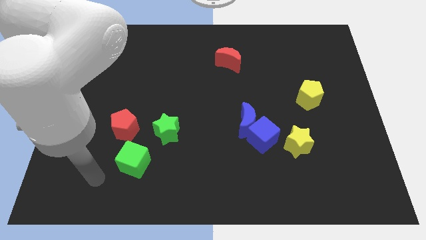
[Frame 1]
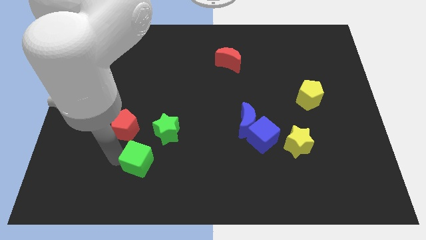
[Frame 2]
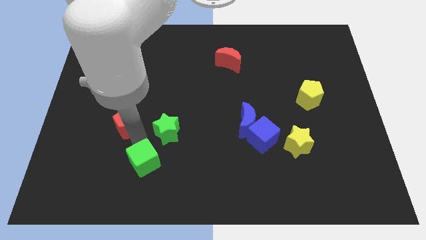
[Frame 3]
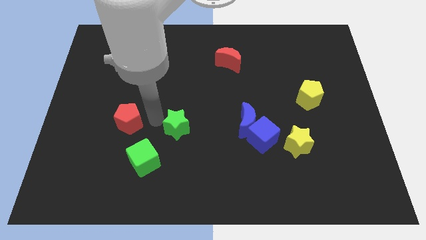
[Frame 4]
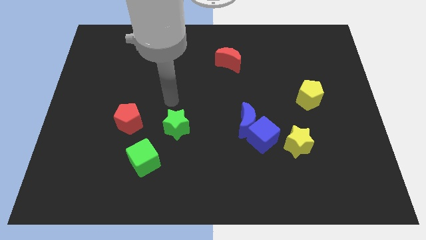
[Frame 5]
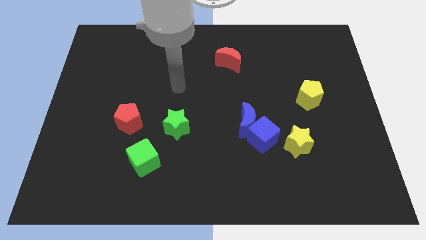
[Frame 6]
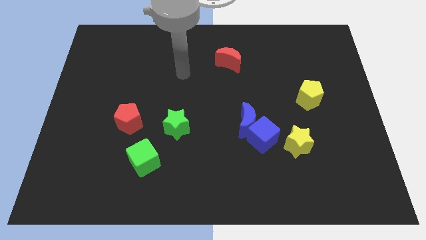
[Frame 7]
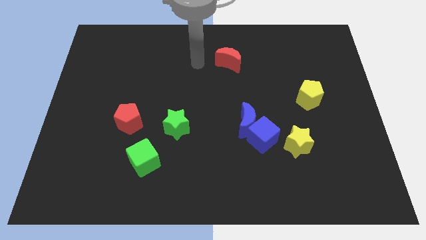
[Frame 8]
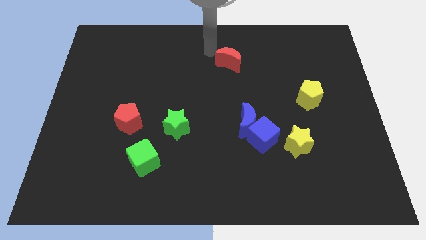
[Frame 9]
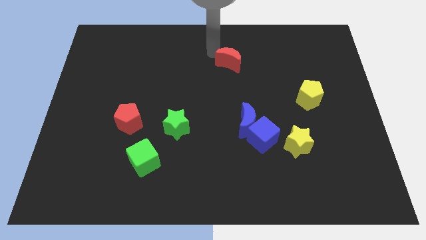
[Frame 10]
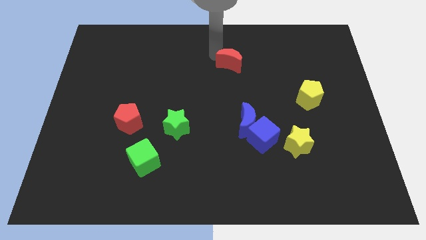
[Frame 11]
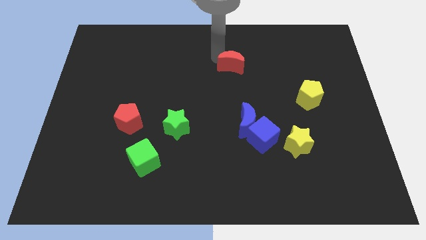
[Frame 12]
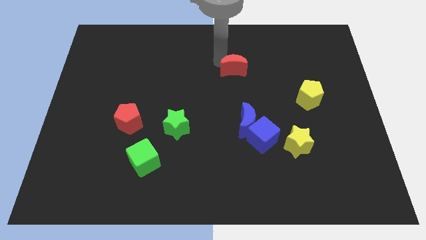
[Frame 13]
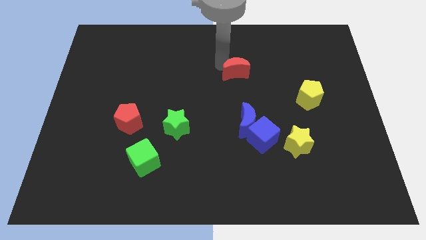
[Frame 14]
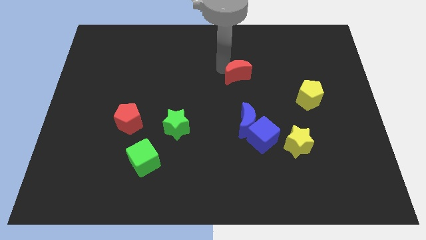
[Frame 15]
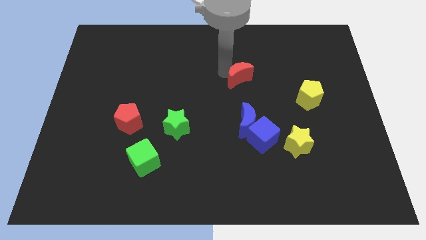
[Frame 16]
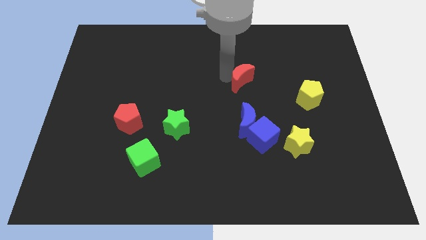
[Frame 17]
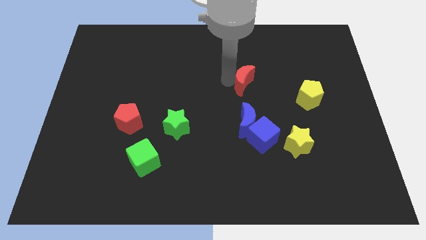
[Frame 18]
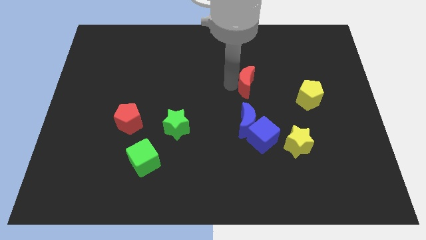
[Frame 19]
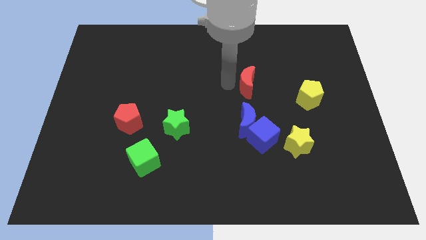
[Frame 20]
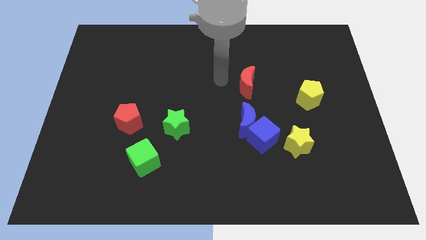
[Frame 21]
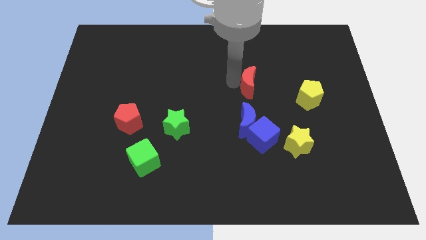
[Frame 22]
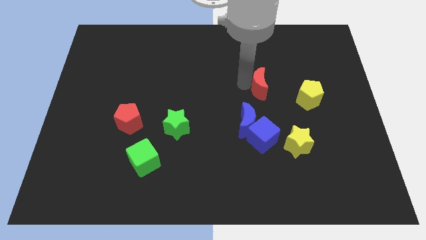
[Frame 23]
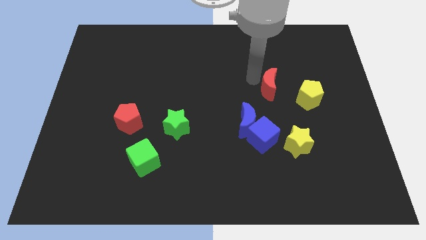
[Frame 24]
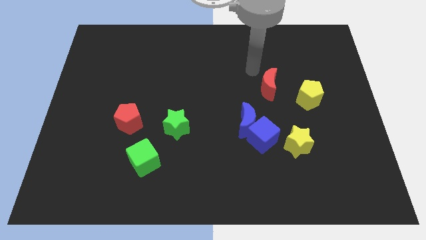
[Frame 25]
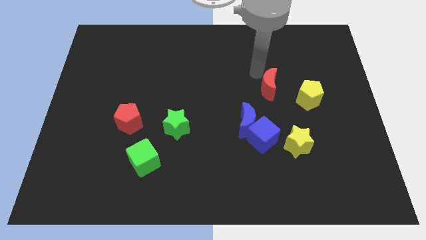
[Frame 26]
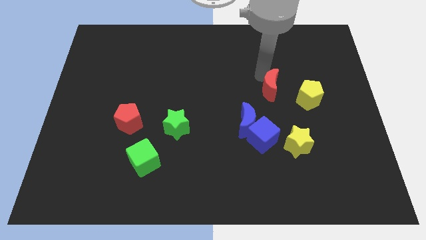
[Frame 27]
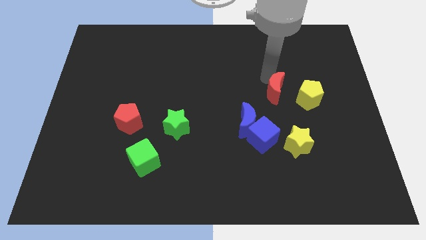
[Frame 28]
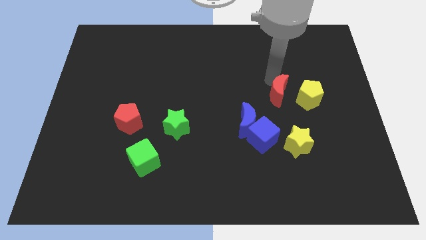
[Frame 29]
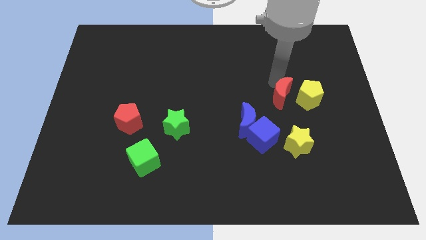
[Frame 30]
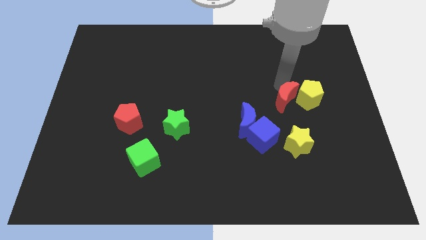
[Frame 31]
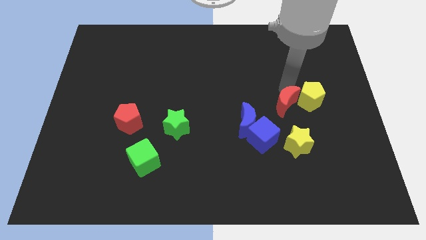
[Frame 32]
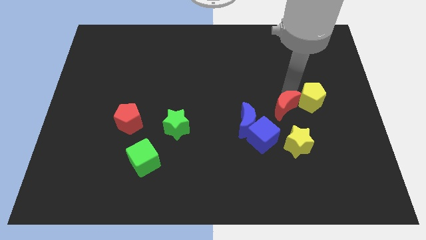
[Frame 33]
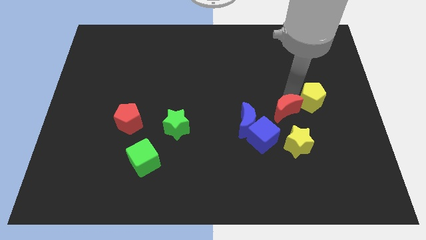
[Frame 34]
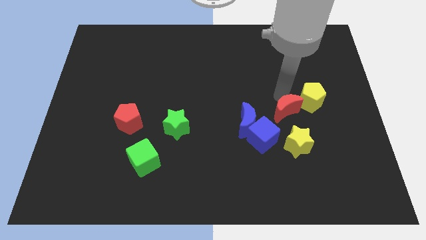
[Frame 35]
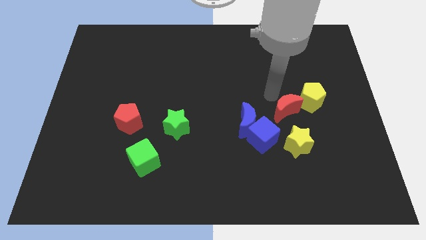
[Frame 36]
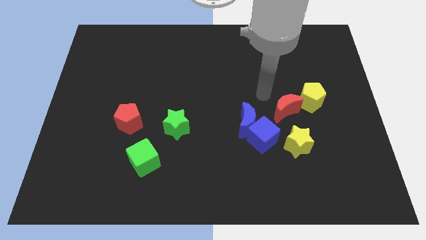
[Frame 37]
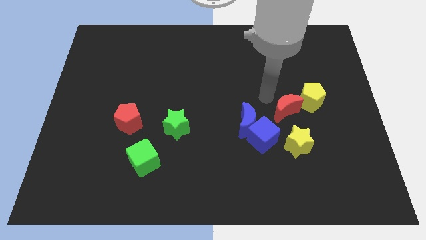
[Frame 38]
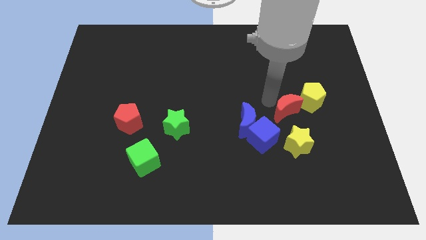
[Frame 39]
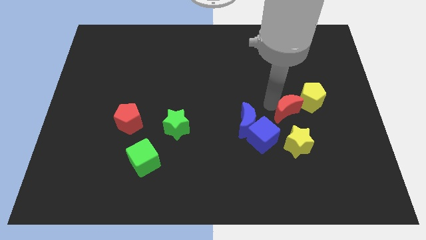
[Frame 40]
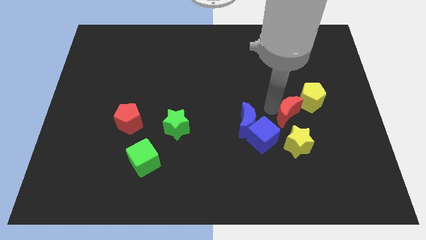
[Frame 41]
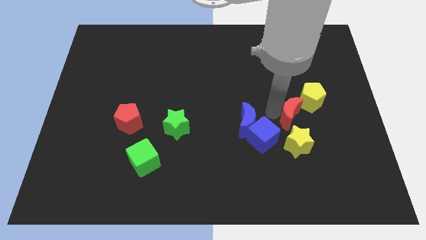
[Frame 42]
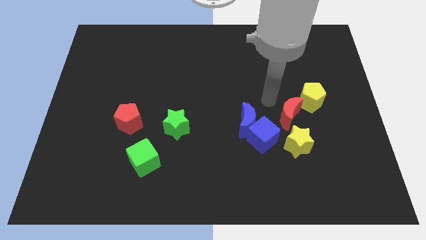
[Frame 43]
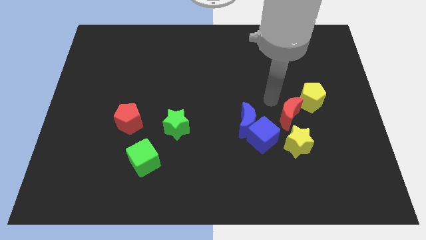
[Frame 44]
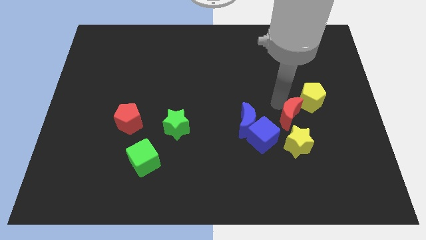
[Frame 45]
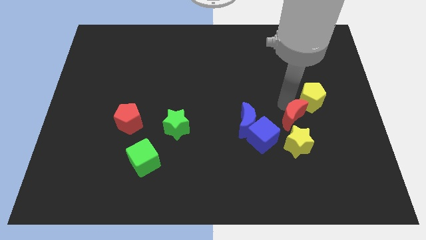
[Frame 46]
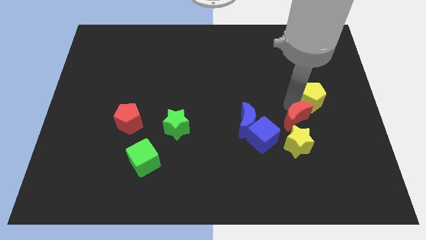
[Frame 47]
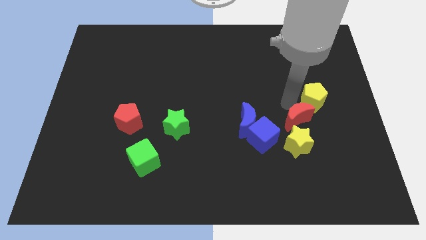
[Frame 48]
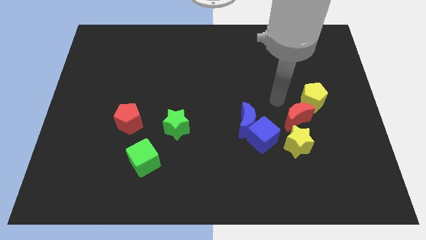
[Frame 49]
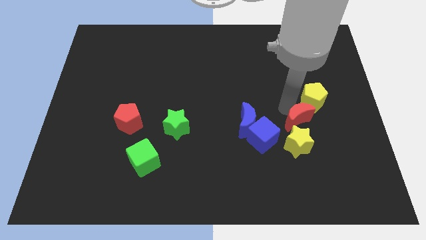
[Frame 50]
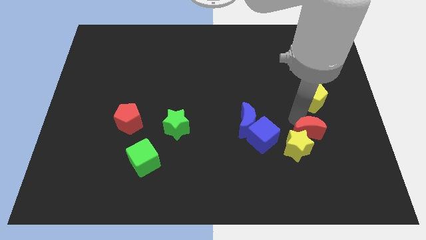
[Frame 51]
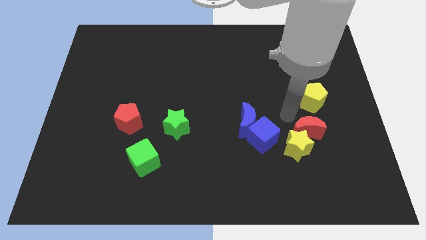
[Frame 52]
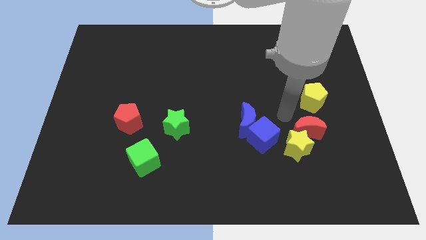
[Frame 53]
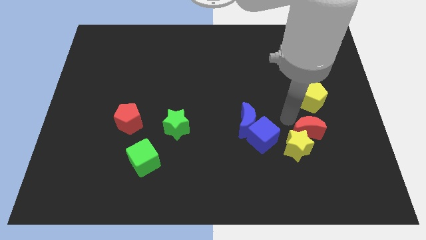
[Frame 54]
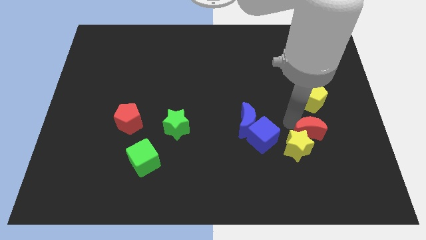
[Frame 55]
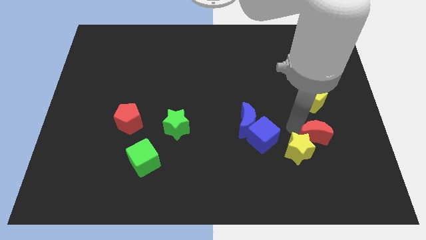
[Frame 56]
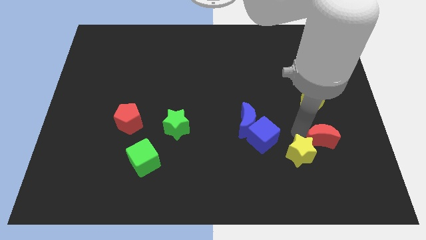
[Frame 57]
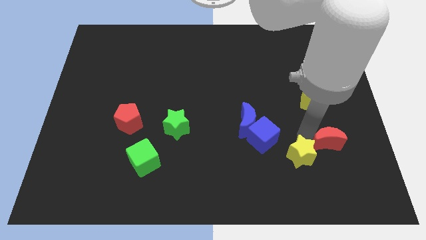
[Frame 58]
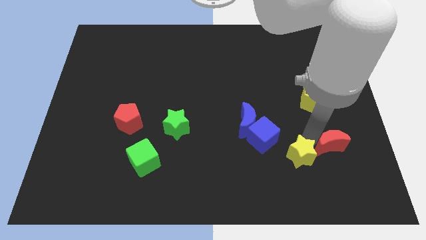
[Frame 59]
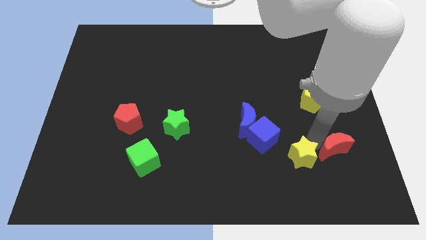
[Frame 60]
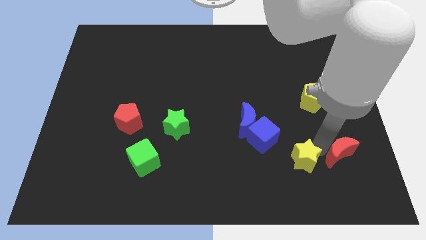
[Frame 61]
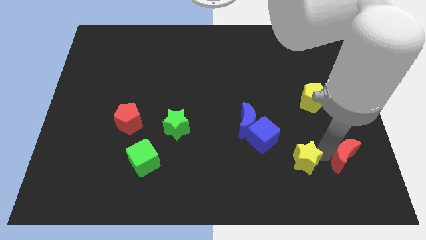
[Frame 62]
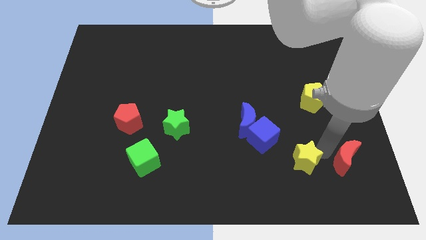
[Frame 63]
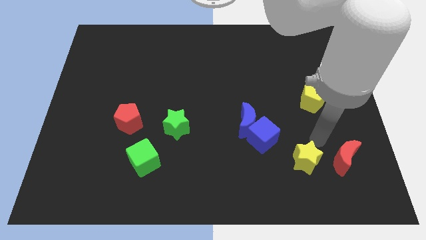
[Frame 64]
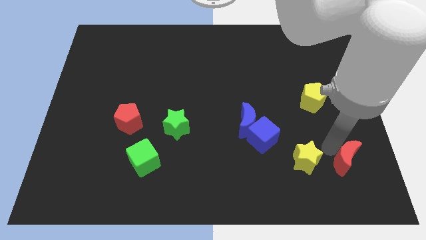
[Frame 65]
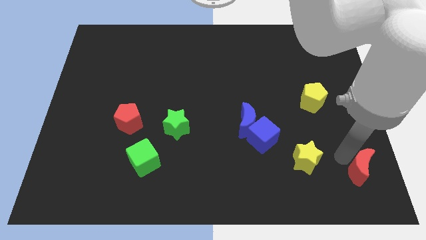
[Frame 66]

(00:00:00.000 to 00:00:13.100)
push the red moon to the bottom right
